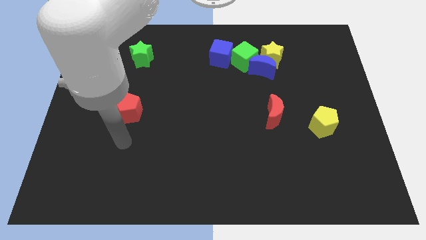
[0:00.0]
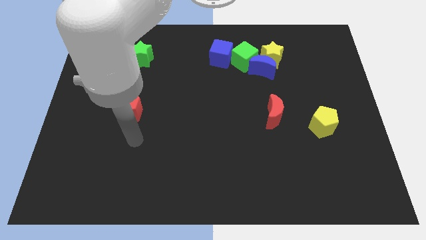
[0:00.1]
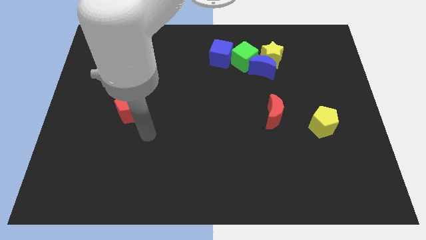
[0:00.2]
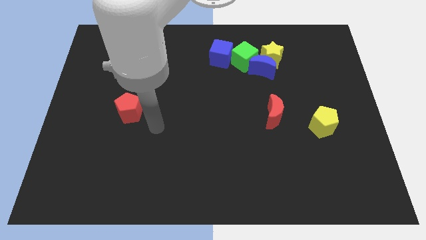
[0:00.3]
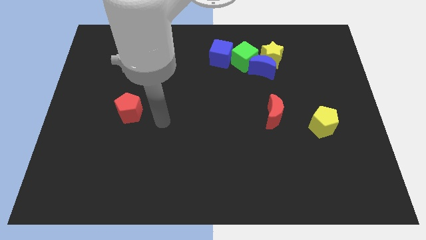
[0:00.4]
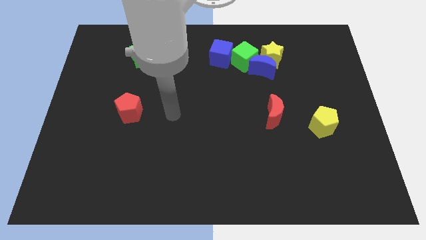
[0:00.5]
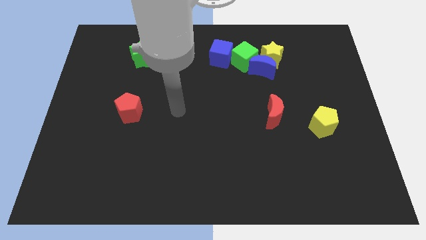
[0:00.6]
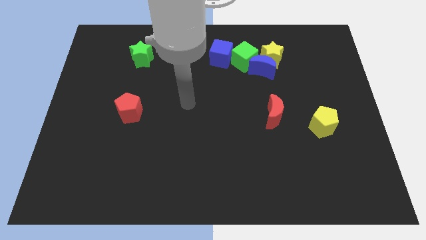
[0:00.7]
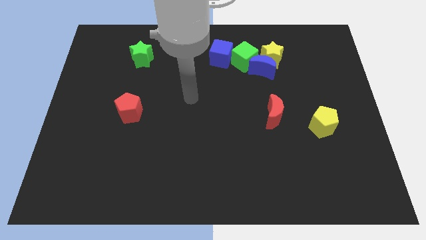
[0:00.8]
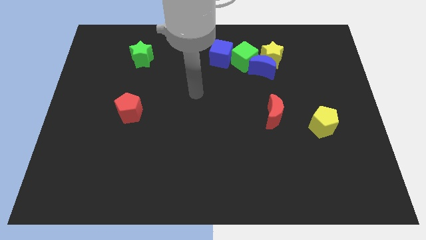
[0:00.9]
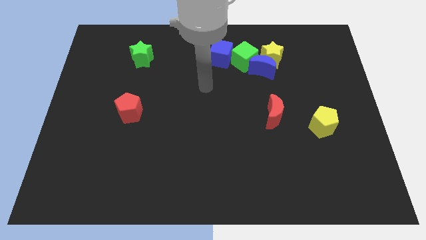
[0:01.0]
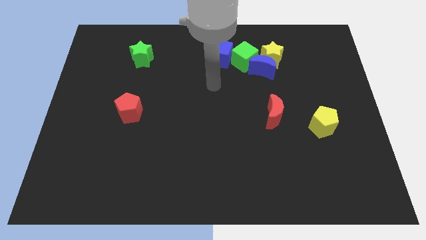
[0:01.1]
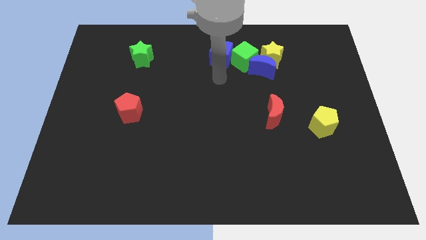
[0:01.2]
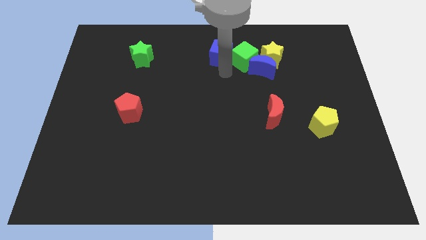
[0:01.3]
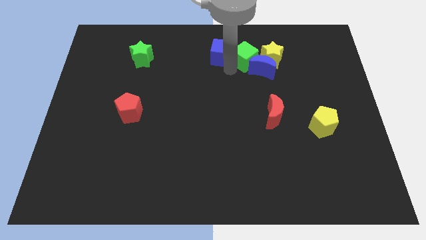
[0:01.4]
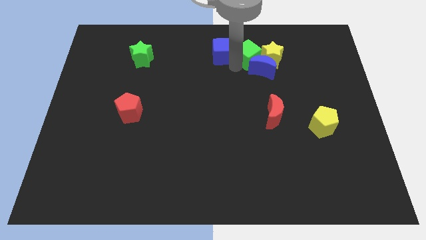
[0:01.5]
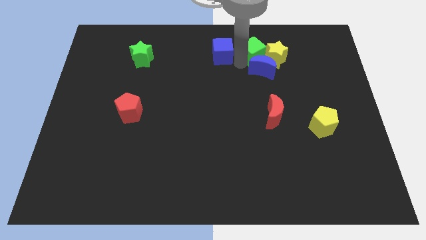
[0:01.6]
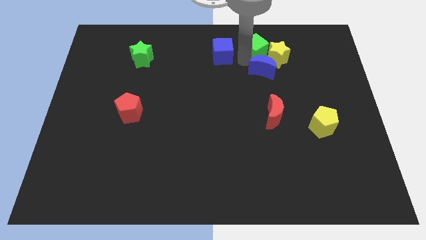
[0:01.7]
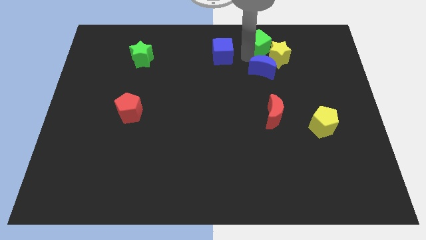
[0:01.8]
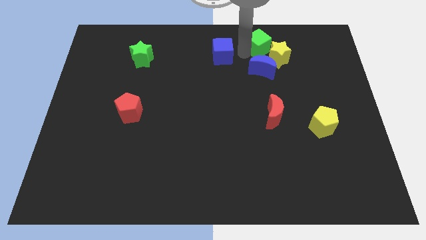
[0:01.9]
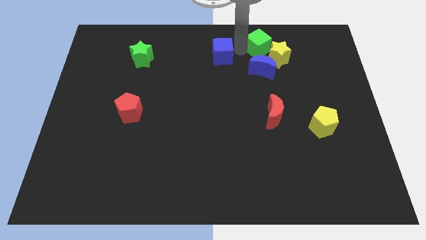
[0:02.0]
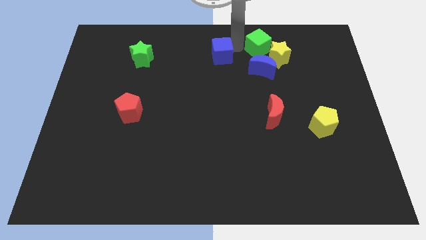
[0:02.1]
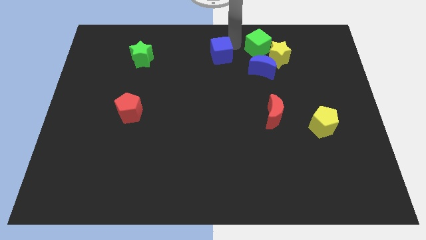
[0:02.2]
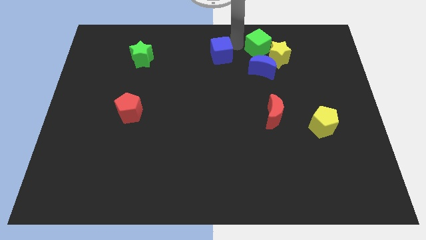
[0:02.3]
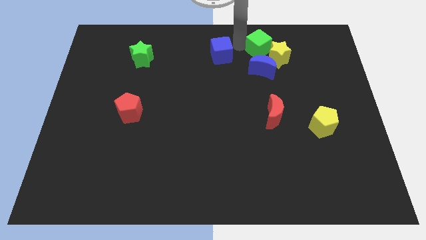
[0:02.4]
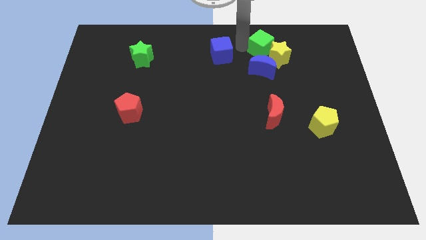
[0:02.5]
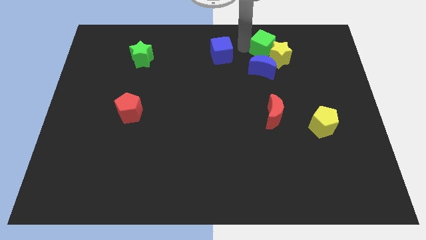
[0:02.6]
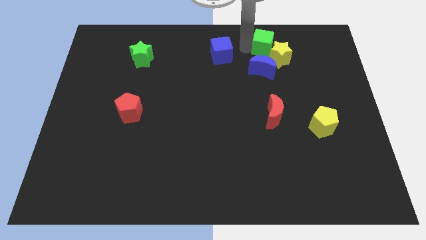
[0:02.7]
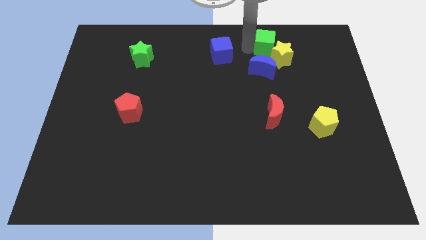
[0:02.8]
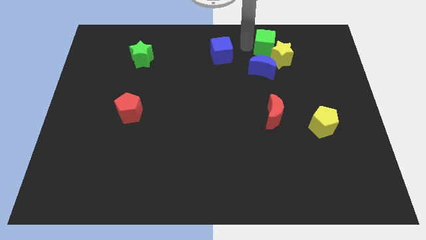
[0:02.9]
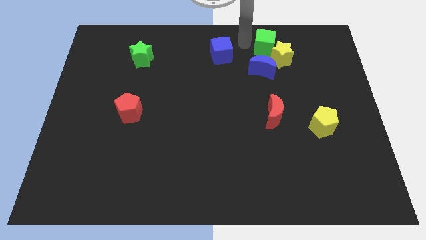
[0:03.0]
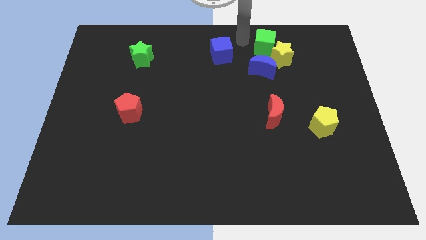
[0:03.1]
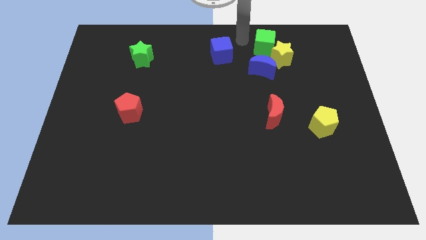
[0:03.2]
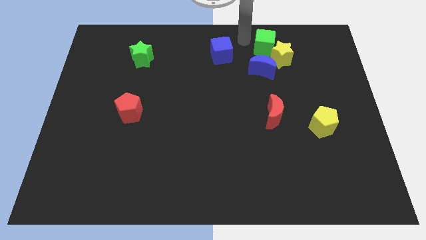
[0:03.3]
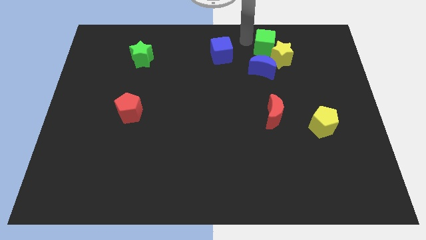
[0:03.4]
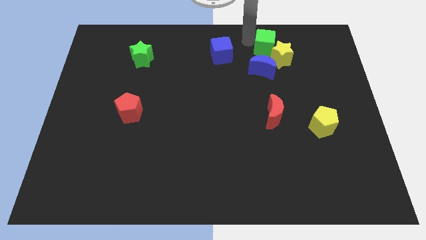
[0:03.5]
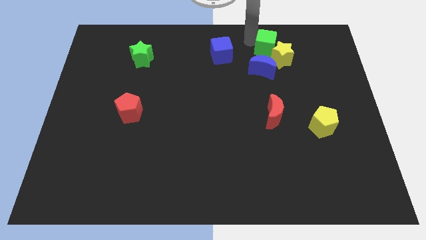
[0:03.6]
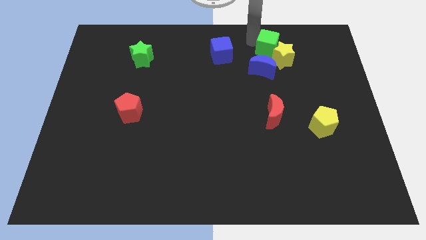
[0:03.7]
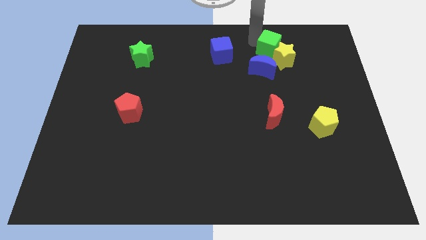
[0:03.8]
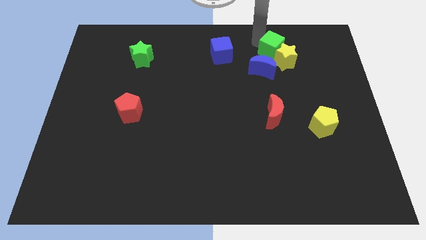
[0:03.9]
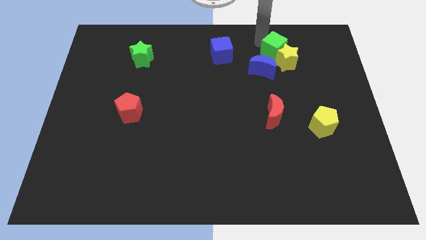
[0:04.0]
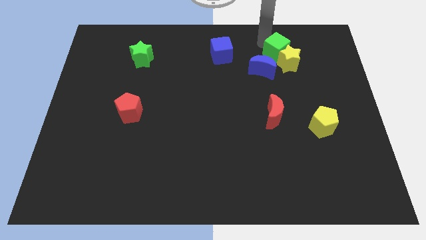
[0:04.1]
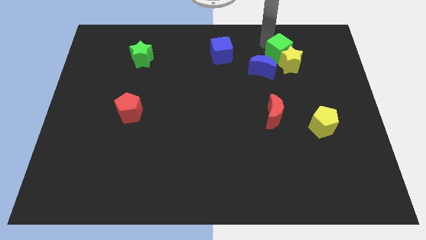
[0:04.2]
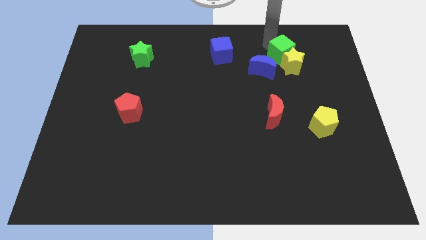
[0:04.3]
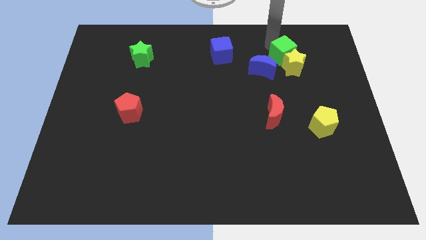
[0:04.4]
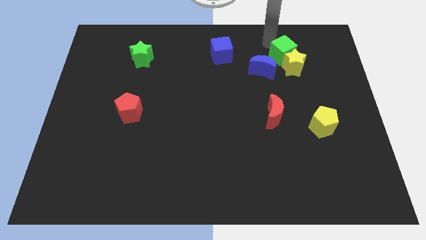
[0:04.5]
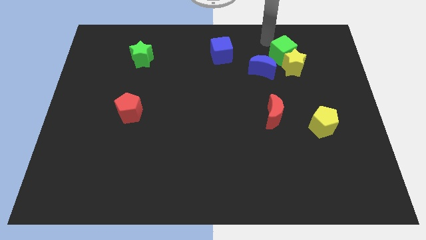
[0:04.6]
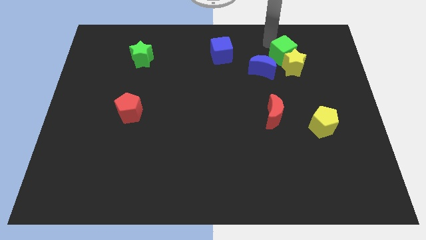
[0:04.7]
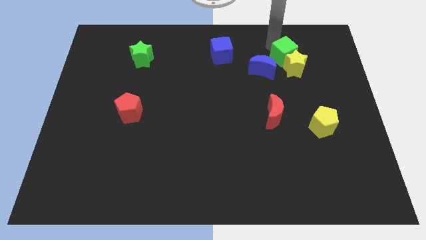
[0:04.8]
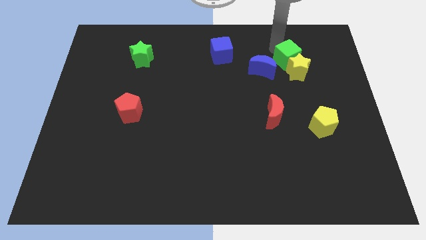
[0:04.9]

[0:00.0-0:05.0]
put the green cube right of the blue moon

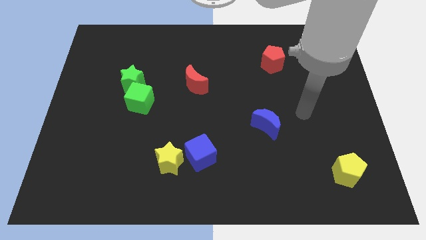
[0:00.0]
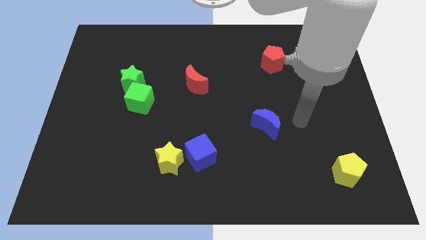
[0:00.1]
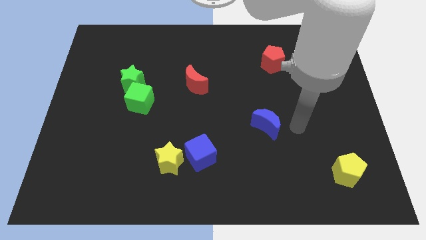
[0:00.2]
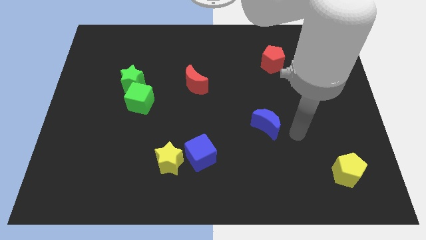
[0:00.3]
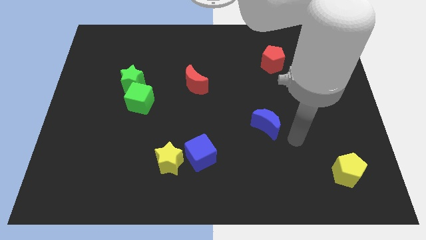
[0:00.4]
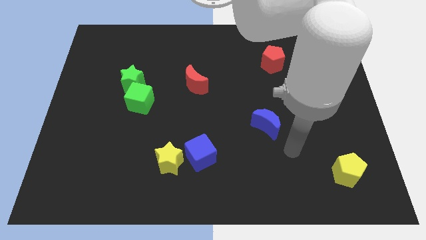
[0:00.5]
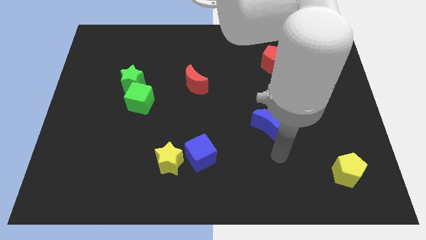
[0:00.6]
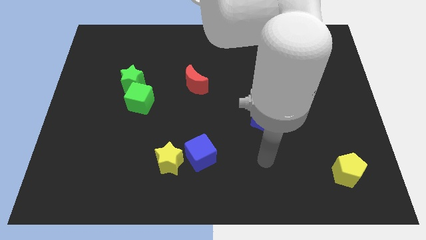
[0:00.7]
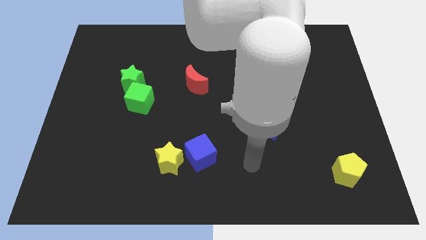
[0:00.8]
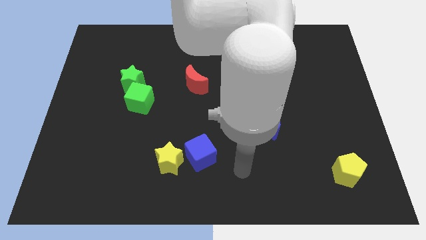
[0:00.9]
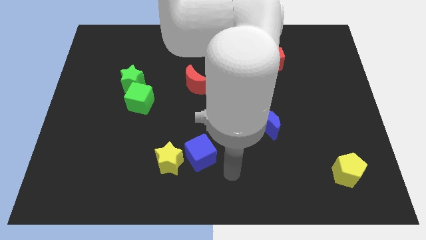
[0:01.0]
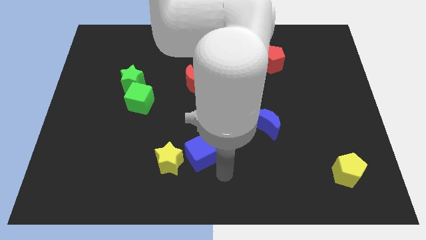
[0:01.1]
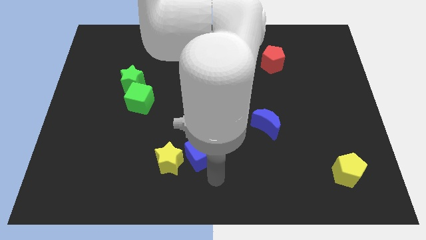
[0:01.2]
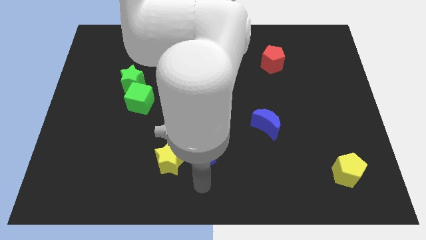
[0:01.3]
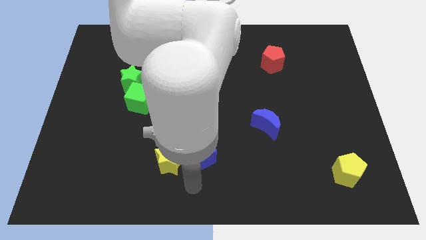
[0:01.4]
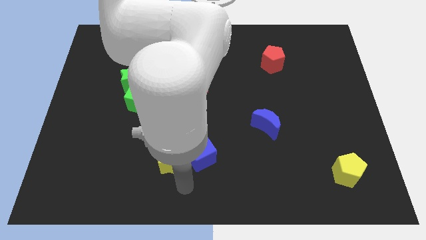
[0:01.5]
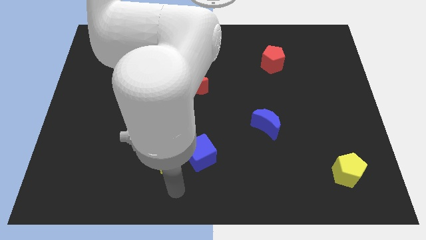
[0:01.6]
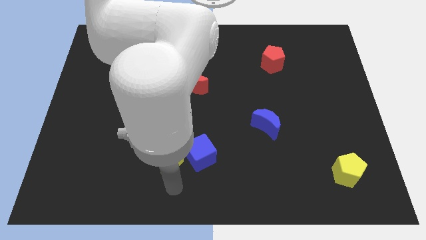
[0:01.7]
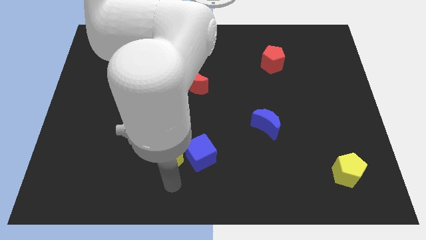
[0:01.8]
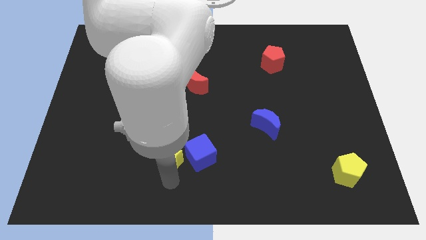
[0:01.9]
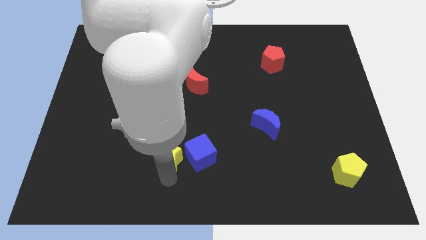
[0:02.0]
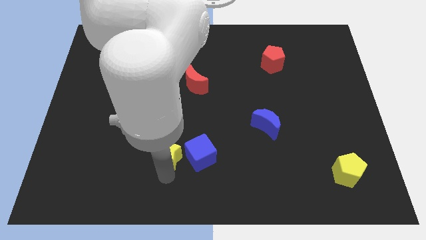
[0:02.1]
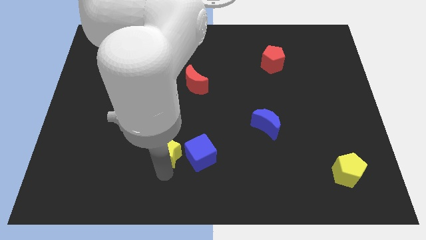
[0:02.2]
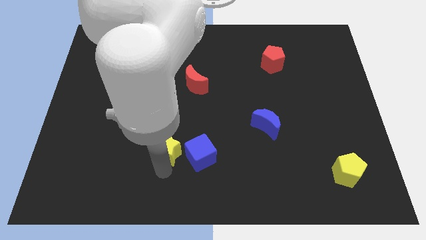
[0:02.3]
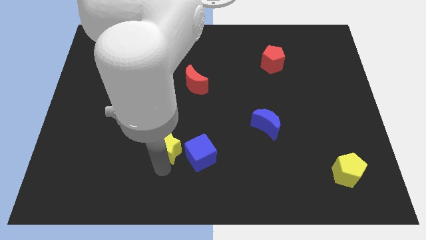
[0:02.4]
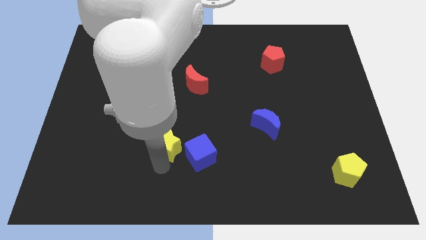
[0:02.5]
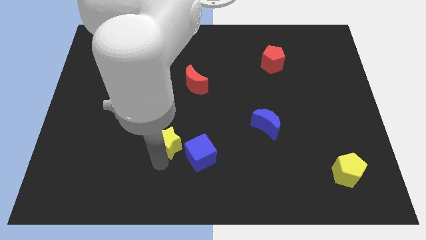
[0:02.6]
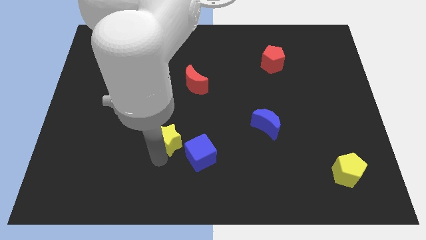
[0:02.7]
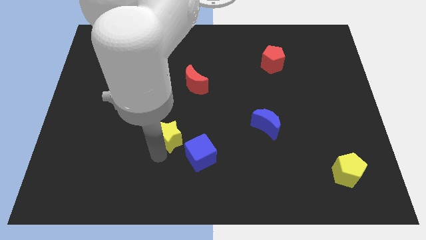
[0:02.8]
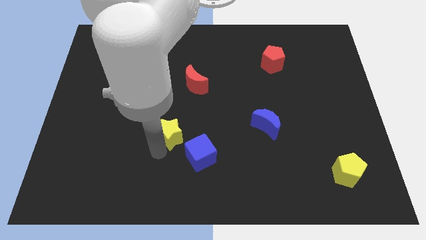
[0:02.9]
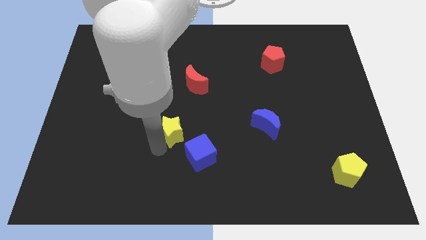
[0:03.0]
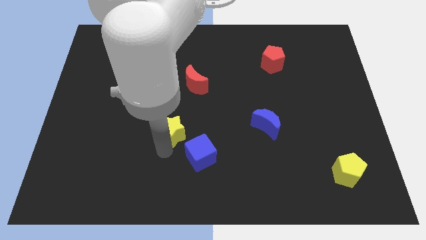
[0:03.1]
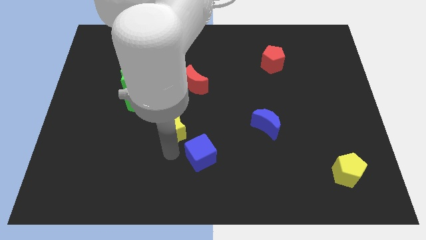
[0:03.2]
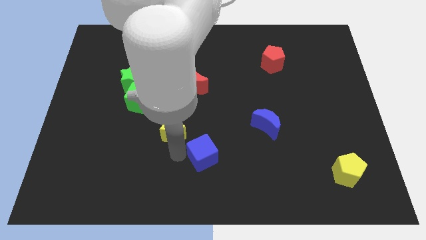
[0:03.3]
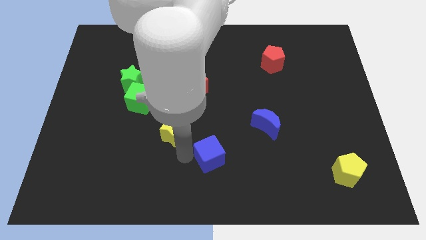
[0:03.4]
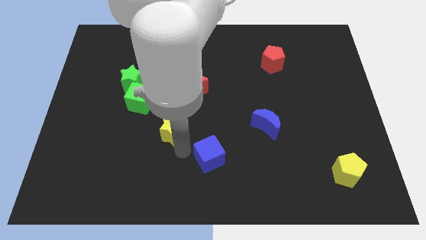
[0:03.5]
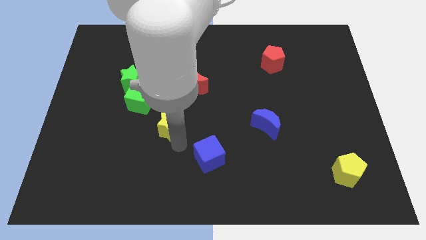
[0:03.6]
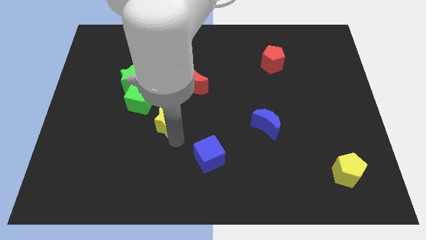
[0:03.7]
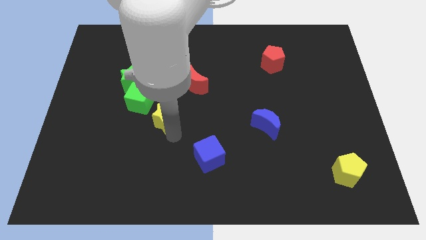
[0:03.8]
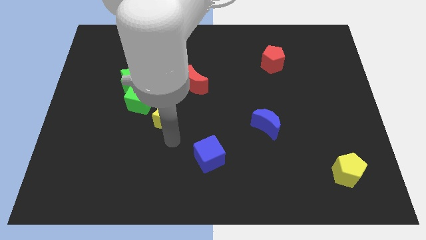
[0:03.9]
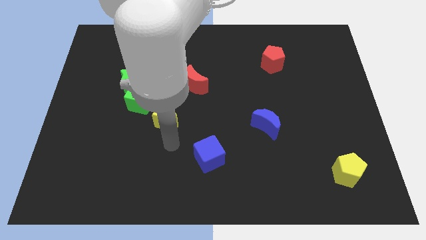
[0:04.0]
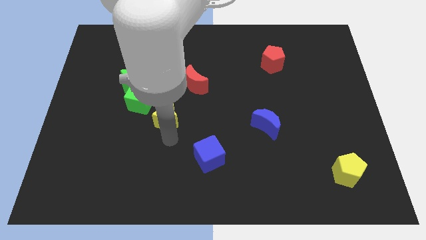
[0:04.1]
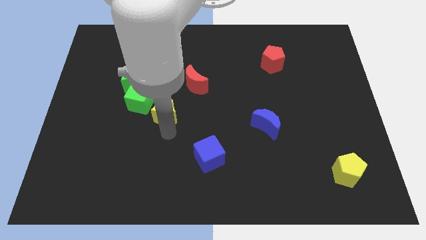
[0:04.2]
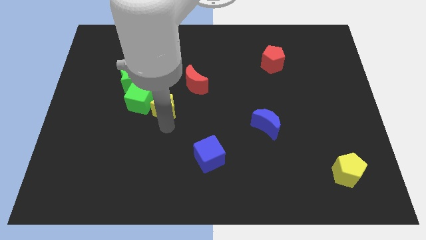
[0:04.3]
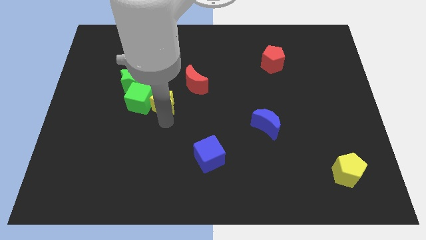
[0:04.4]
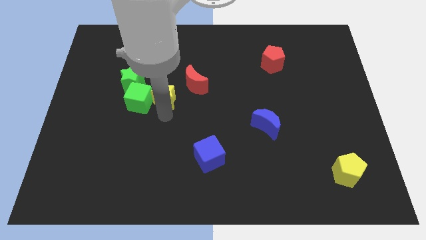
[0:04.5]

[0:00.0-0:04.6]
push the yellow star just left of the red moon
